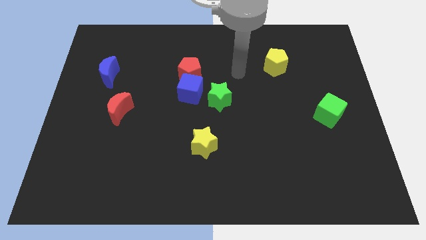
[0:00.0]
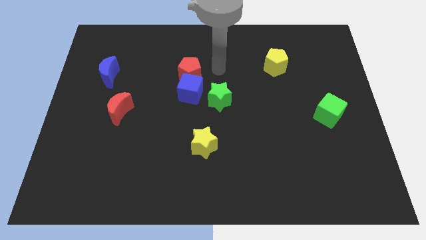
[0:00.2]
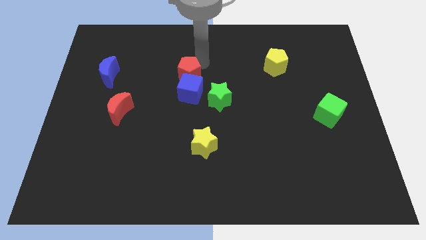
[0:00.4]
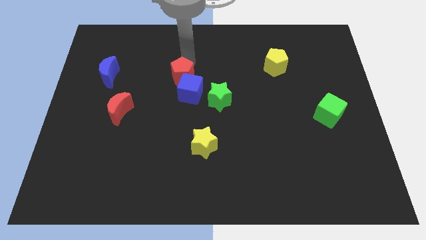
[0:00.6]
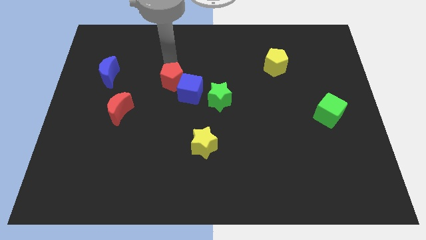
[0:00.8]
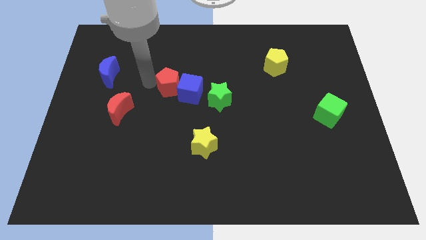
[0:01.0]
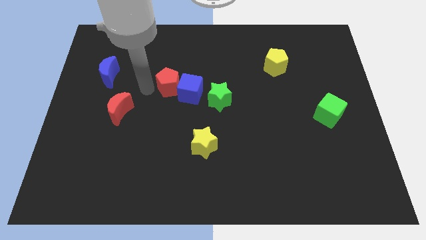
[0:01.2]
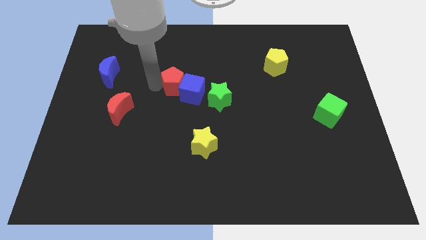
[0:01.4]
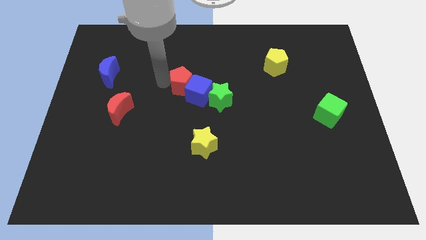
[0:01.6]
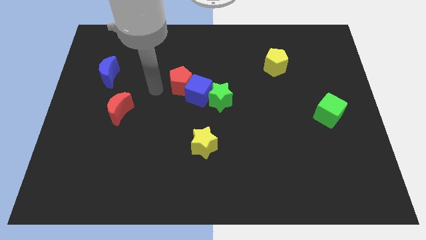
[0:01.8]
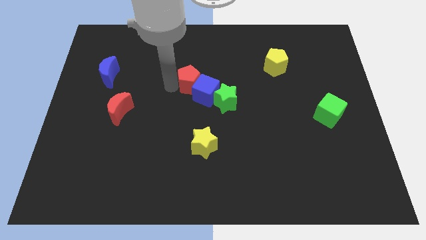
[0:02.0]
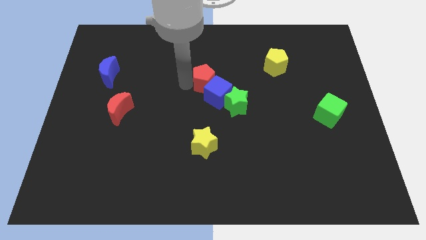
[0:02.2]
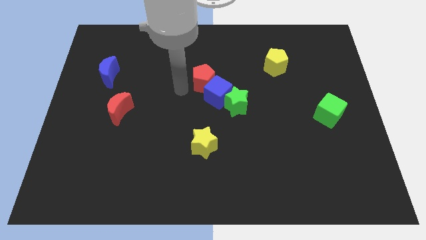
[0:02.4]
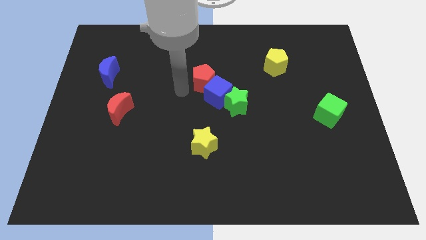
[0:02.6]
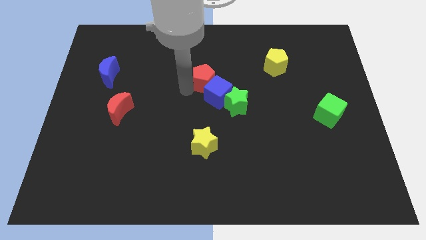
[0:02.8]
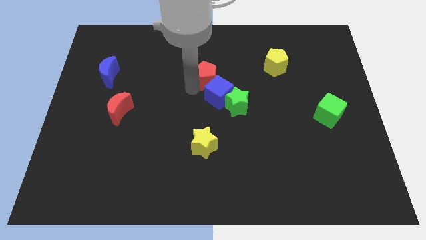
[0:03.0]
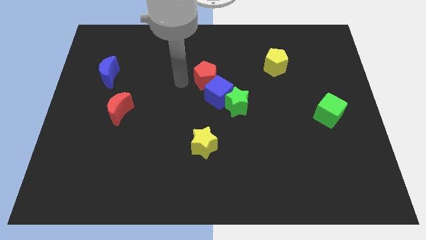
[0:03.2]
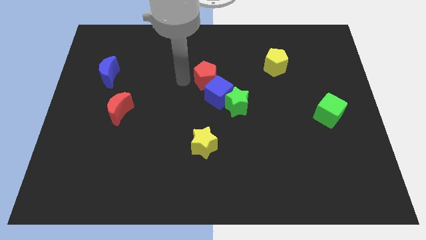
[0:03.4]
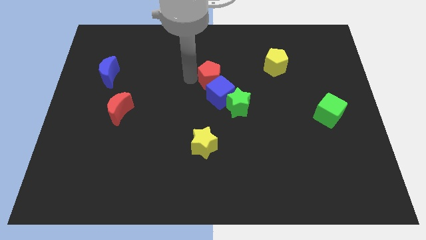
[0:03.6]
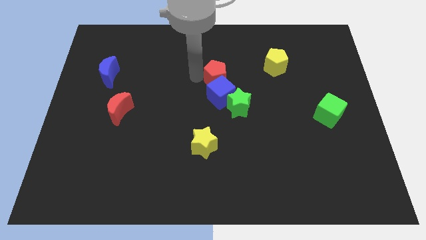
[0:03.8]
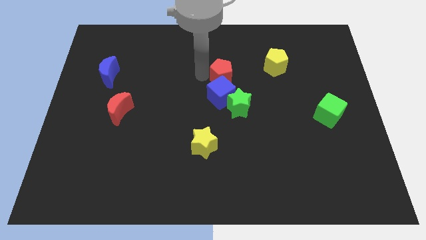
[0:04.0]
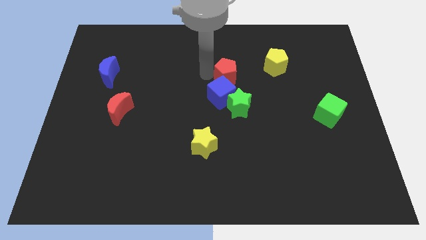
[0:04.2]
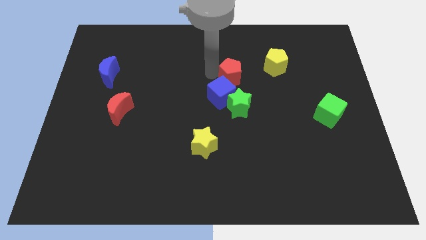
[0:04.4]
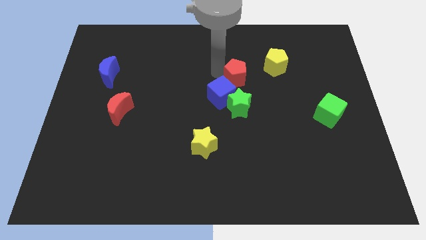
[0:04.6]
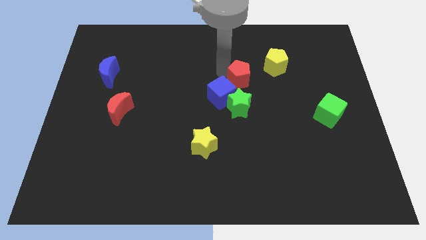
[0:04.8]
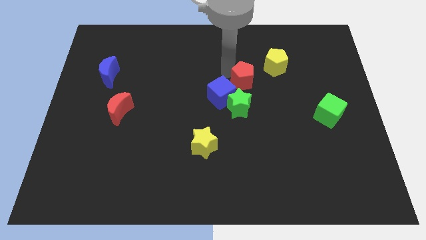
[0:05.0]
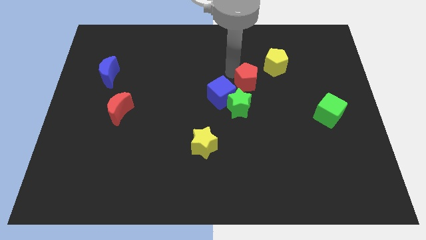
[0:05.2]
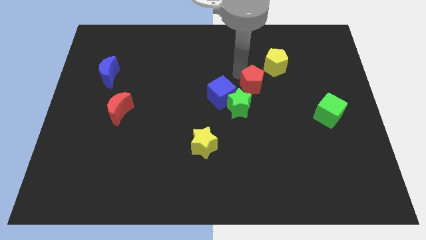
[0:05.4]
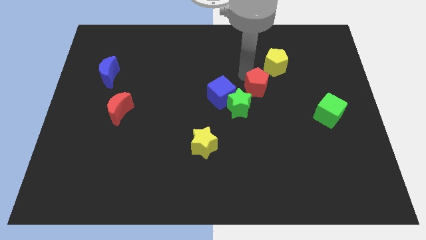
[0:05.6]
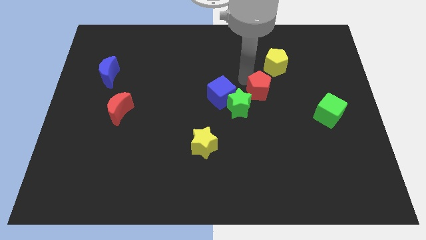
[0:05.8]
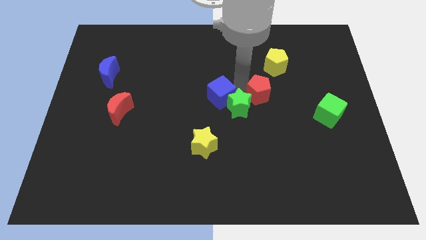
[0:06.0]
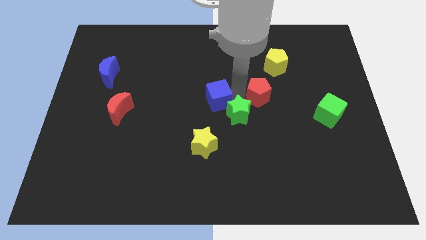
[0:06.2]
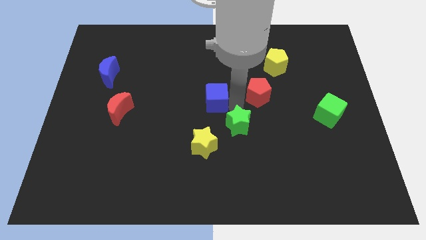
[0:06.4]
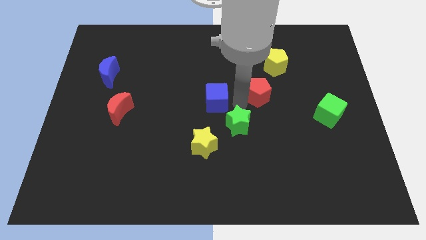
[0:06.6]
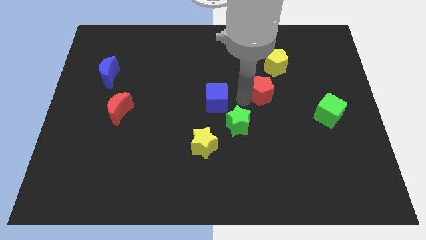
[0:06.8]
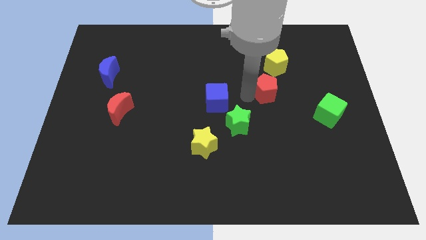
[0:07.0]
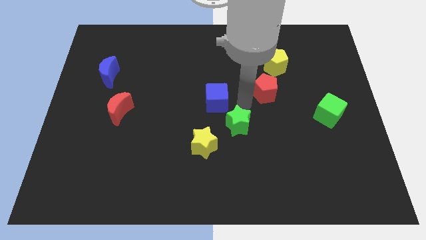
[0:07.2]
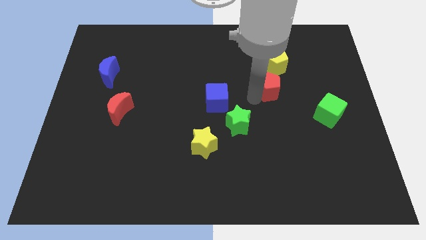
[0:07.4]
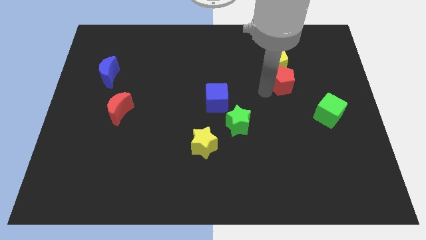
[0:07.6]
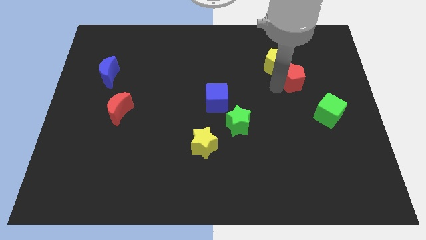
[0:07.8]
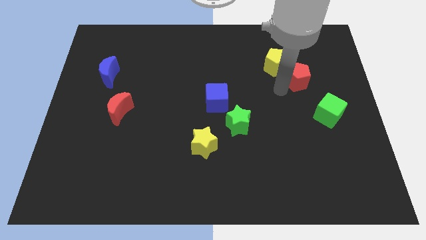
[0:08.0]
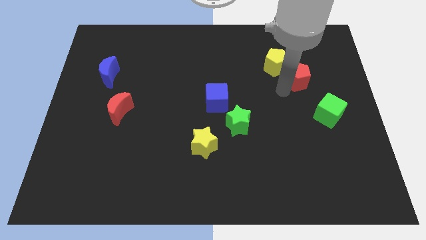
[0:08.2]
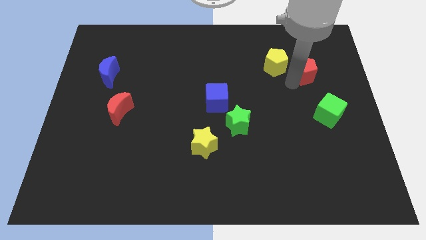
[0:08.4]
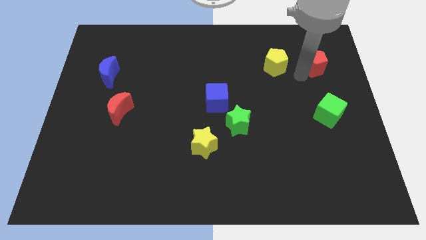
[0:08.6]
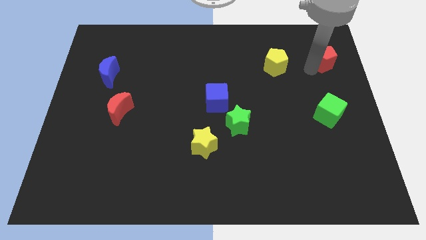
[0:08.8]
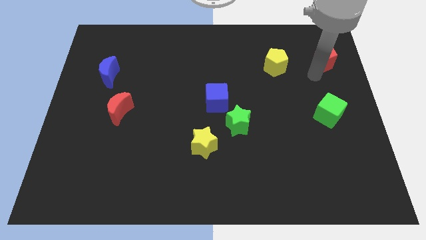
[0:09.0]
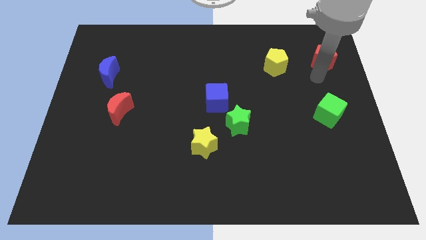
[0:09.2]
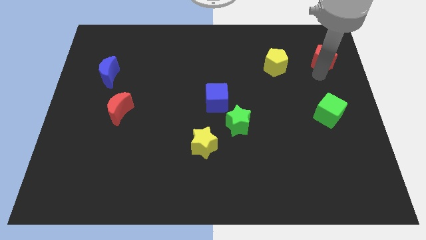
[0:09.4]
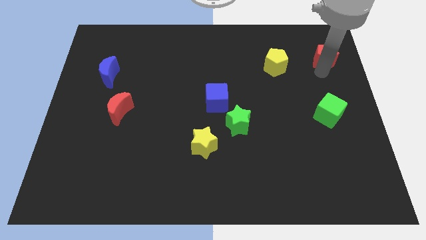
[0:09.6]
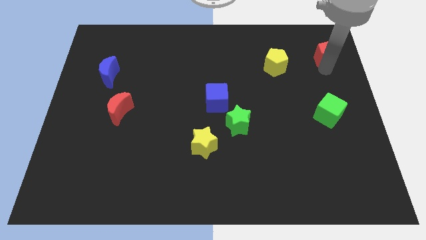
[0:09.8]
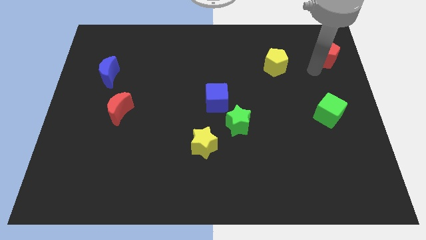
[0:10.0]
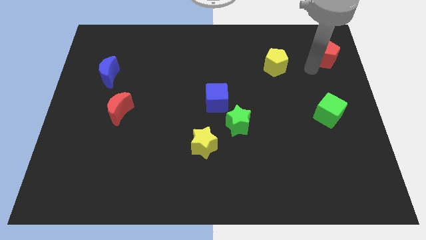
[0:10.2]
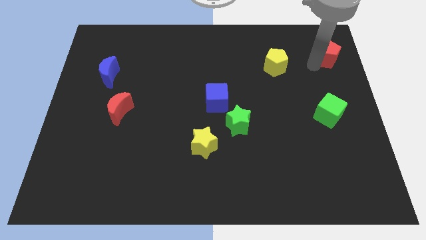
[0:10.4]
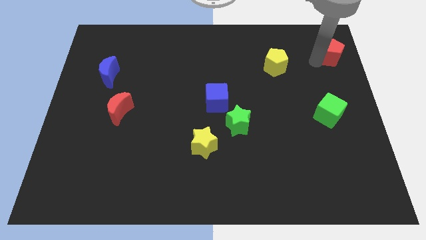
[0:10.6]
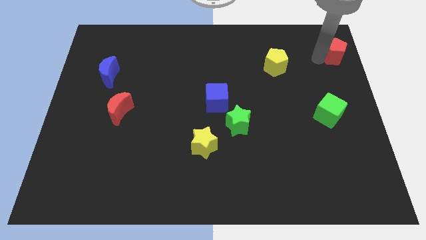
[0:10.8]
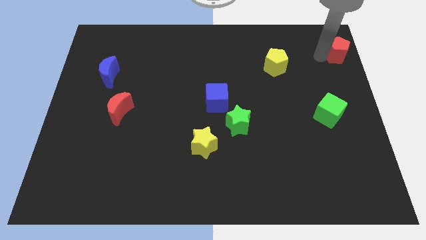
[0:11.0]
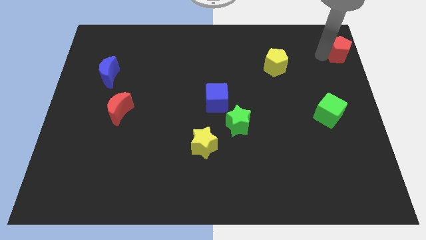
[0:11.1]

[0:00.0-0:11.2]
put the red pentagon to the top right of the board

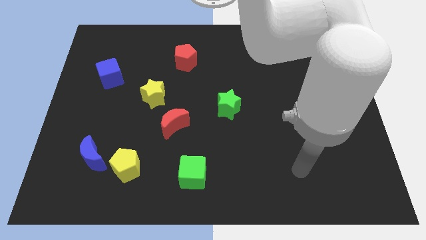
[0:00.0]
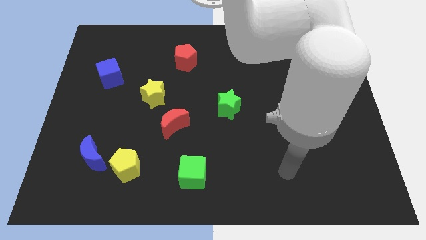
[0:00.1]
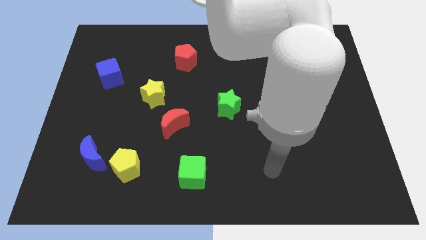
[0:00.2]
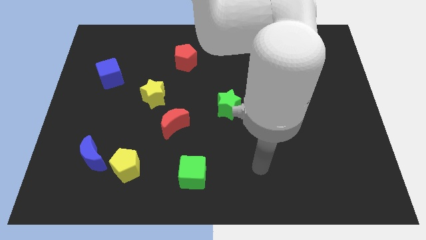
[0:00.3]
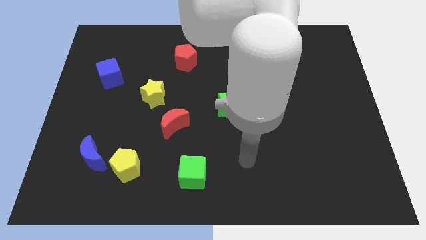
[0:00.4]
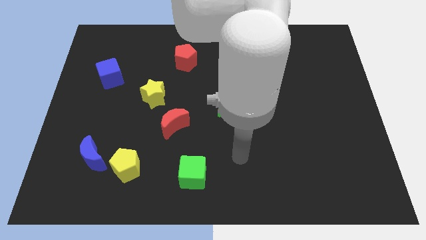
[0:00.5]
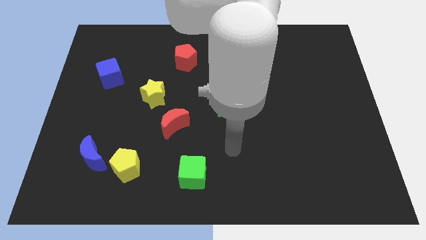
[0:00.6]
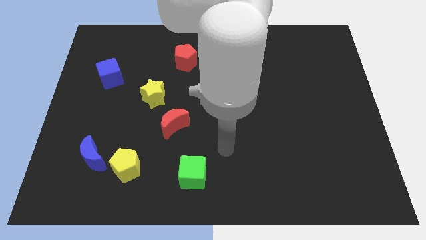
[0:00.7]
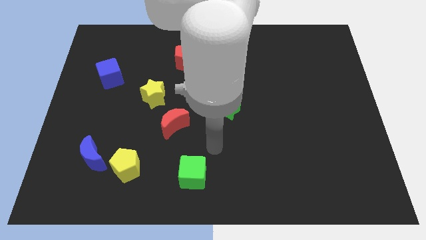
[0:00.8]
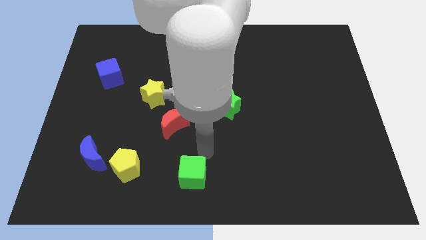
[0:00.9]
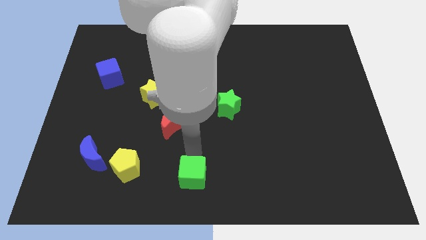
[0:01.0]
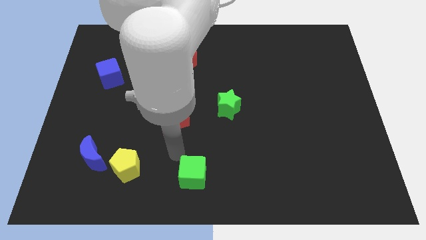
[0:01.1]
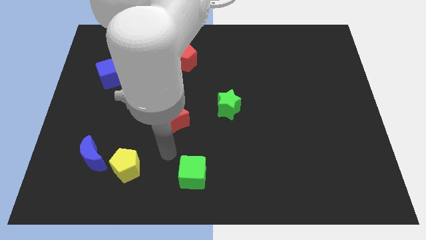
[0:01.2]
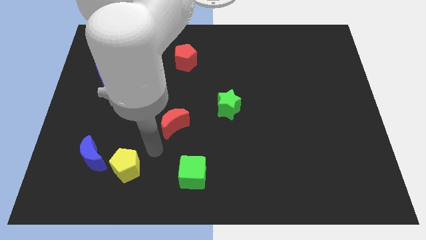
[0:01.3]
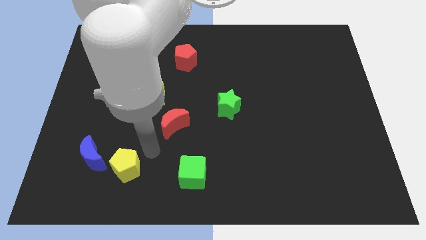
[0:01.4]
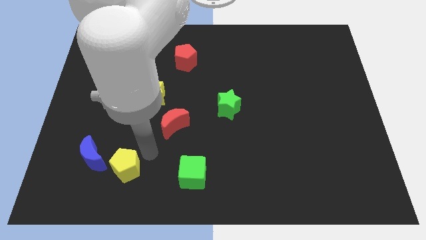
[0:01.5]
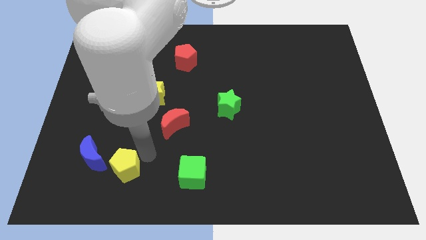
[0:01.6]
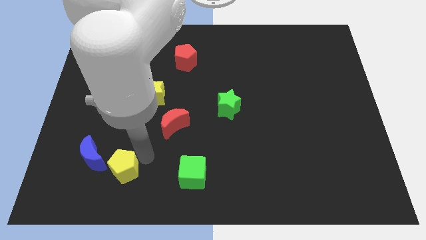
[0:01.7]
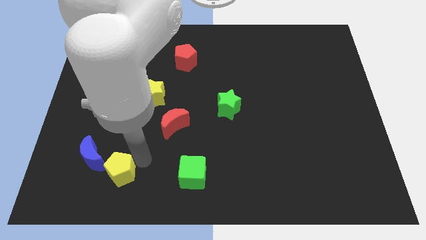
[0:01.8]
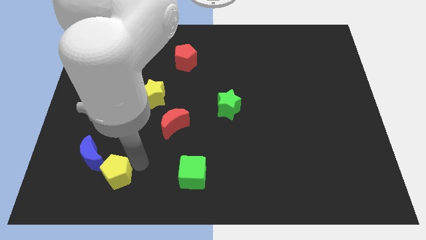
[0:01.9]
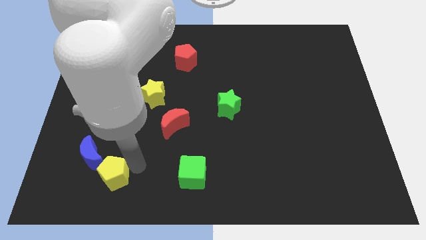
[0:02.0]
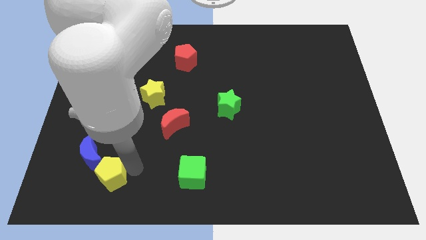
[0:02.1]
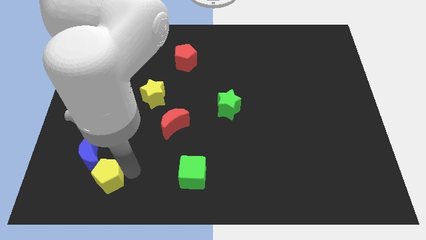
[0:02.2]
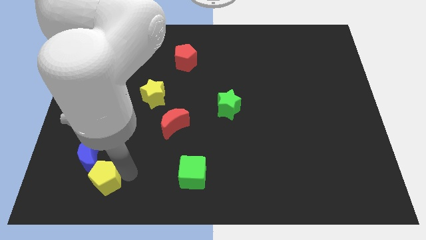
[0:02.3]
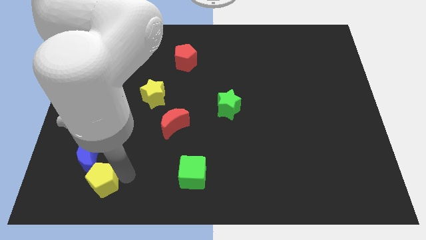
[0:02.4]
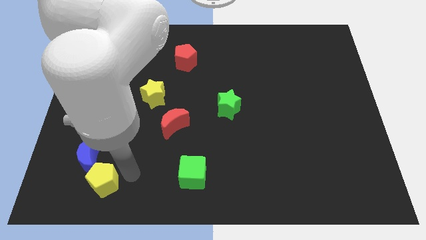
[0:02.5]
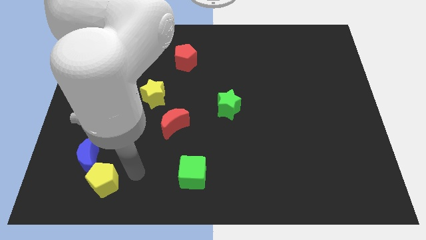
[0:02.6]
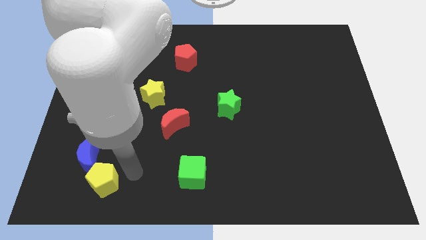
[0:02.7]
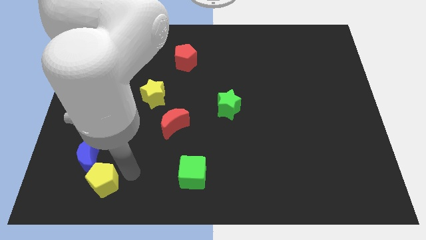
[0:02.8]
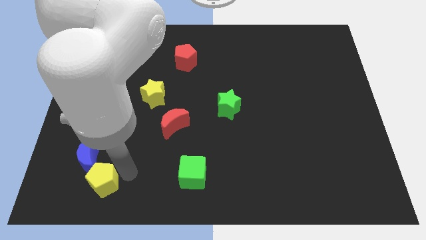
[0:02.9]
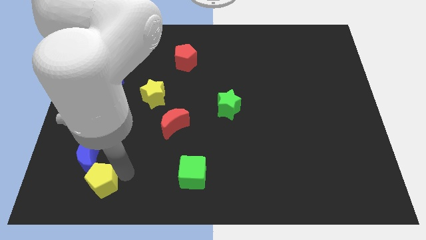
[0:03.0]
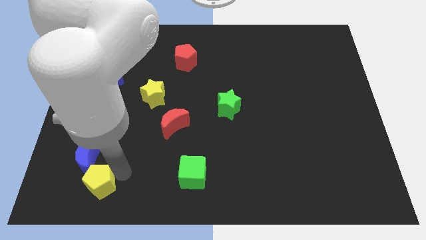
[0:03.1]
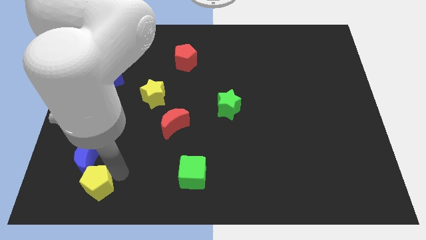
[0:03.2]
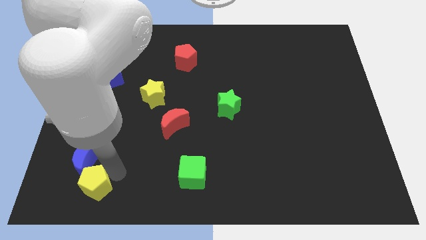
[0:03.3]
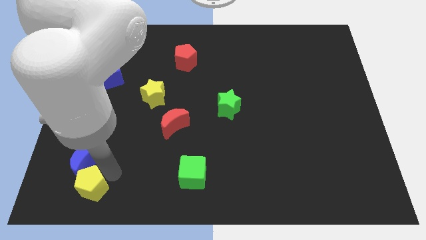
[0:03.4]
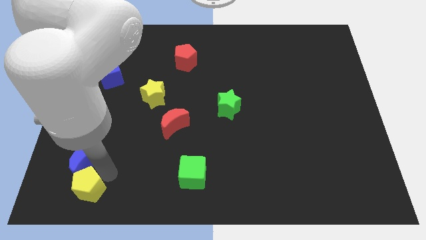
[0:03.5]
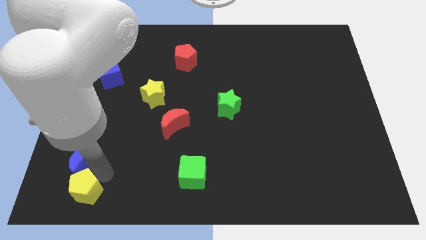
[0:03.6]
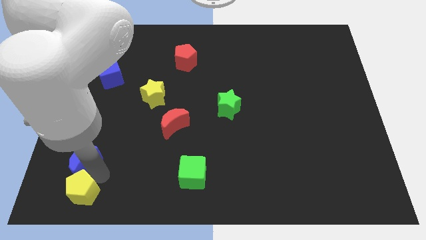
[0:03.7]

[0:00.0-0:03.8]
put the yellow pentagon to the lower left corner
